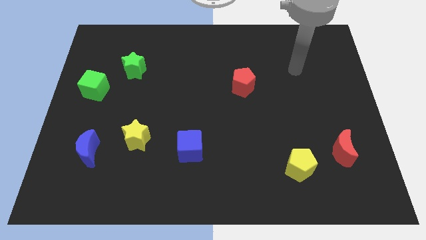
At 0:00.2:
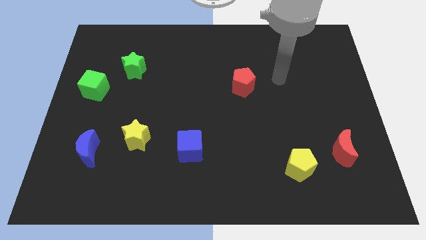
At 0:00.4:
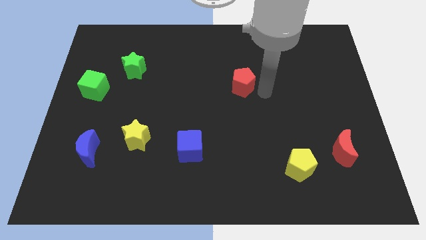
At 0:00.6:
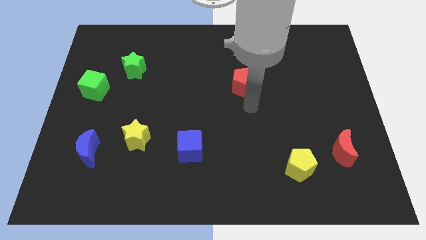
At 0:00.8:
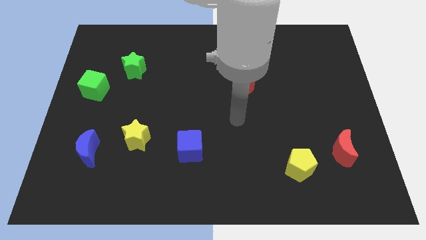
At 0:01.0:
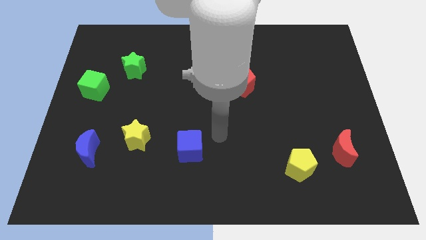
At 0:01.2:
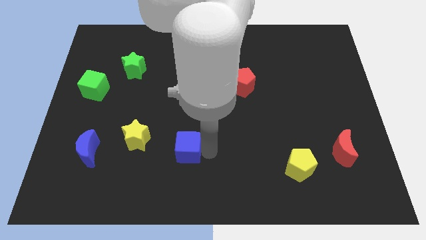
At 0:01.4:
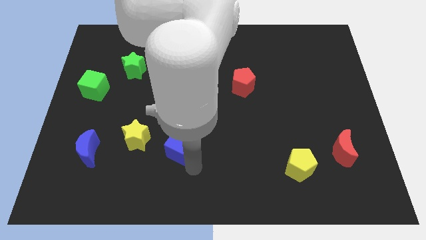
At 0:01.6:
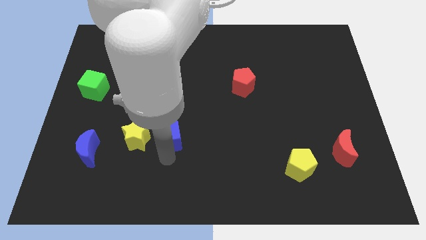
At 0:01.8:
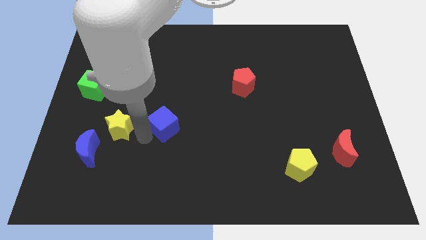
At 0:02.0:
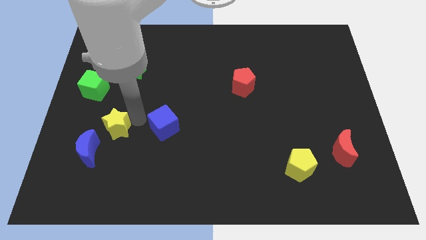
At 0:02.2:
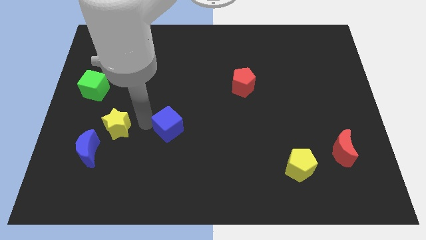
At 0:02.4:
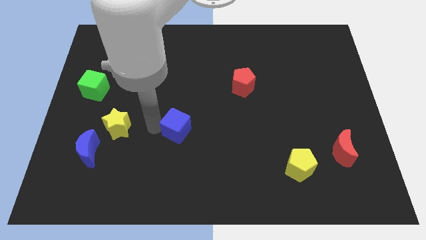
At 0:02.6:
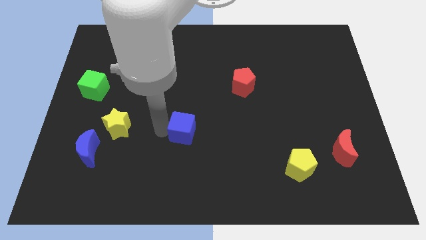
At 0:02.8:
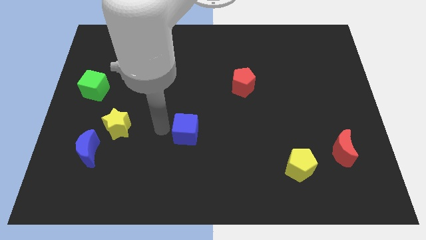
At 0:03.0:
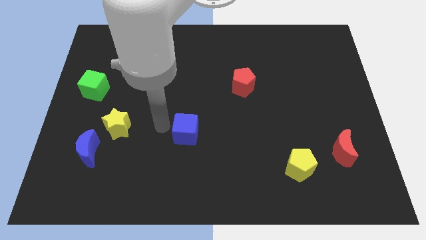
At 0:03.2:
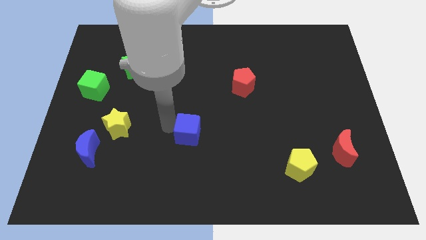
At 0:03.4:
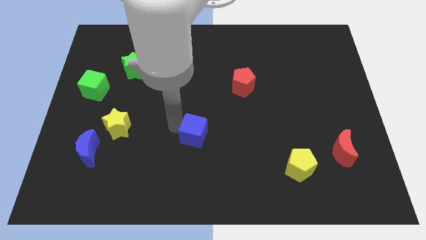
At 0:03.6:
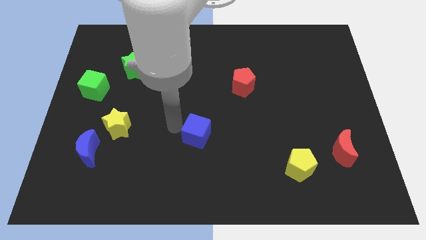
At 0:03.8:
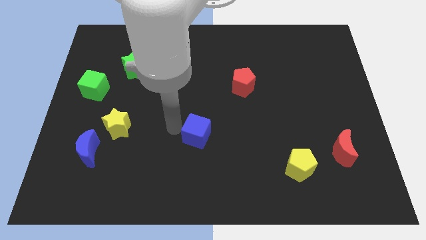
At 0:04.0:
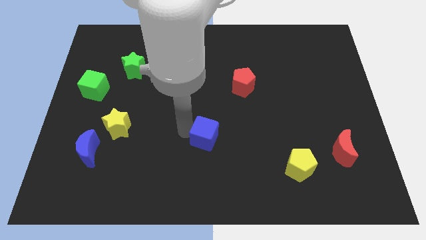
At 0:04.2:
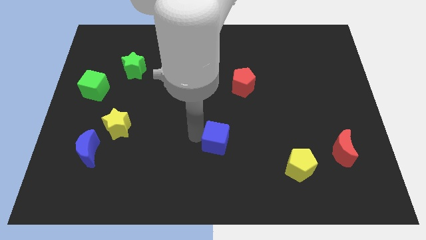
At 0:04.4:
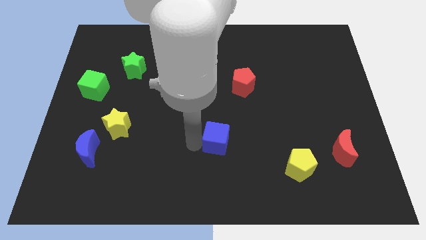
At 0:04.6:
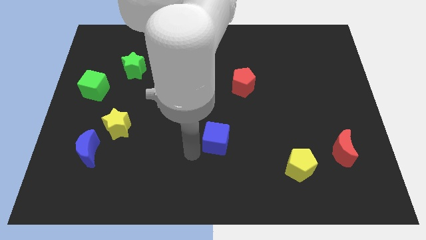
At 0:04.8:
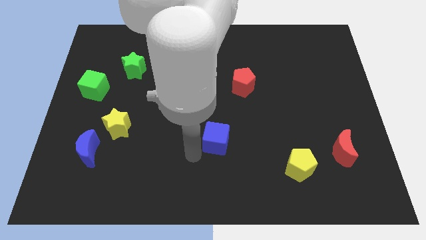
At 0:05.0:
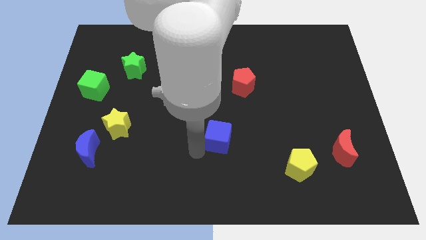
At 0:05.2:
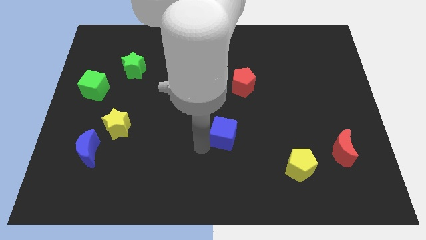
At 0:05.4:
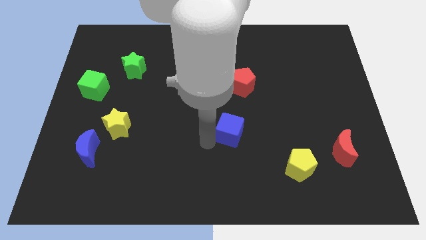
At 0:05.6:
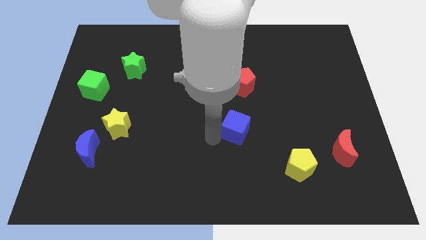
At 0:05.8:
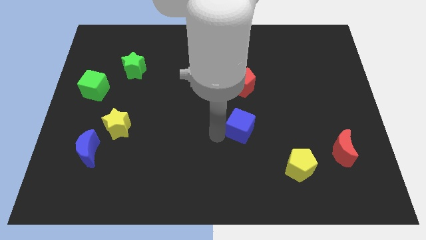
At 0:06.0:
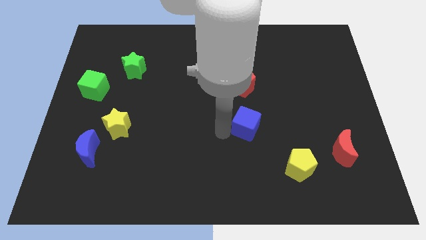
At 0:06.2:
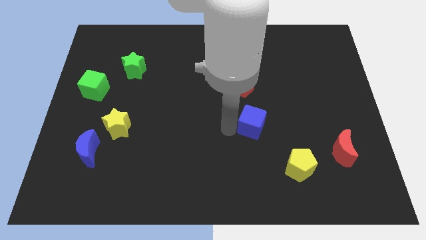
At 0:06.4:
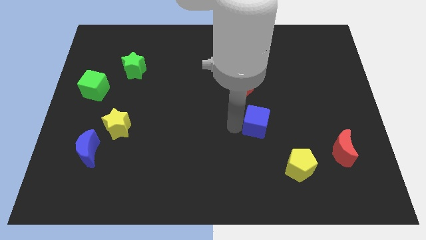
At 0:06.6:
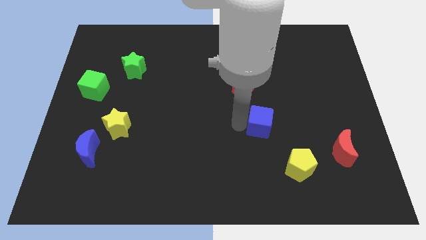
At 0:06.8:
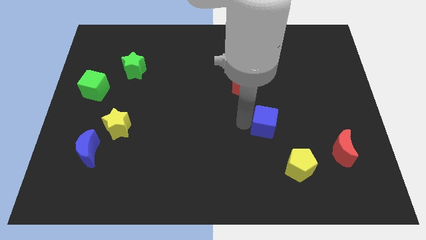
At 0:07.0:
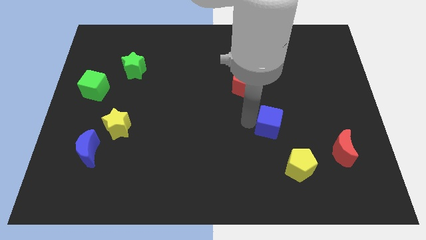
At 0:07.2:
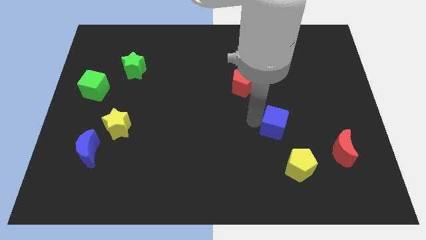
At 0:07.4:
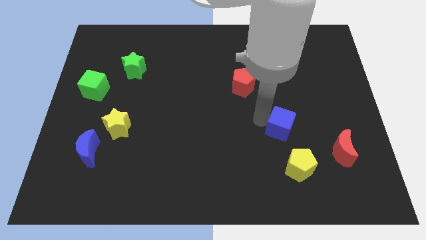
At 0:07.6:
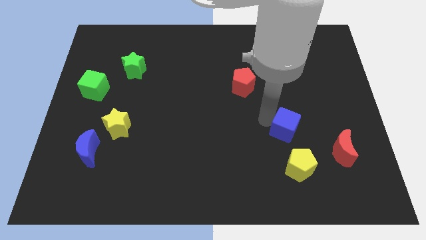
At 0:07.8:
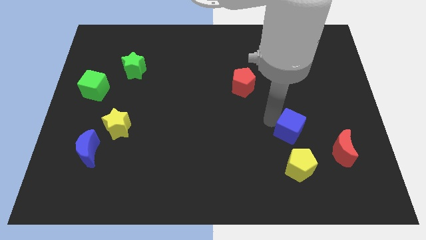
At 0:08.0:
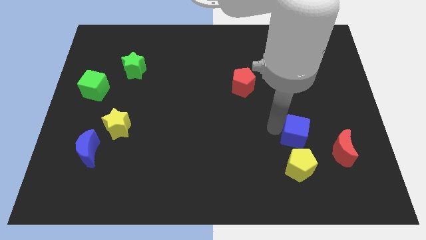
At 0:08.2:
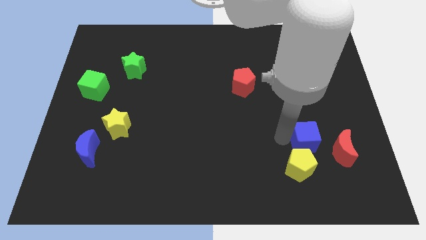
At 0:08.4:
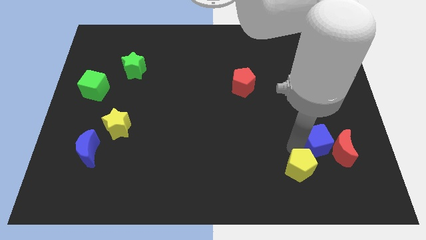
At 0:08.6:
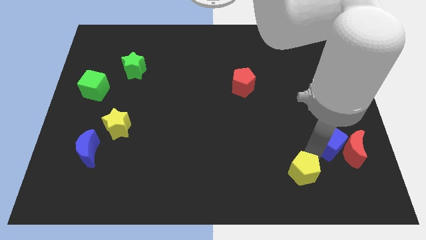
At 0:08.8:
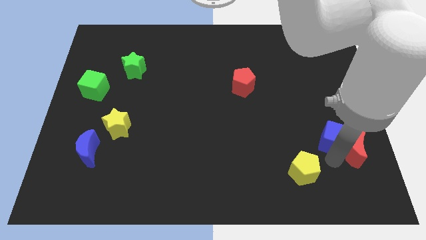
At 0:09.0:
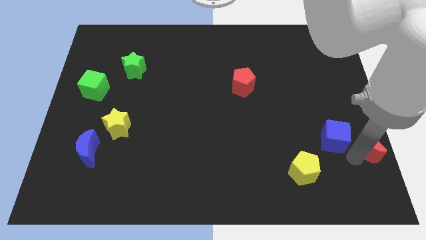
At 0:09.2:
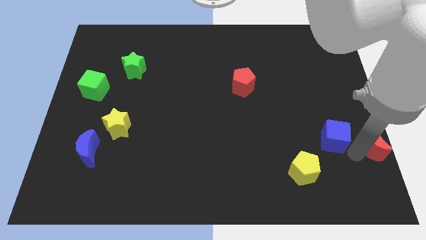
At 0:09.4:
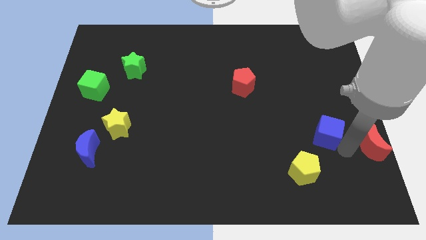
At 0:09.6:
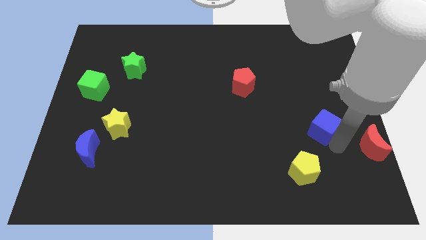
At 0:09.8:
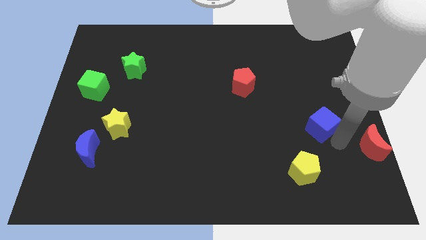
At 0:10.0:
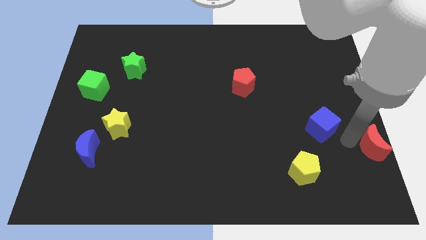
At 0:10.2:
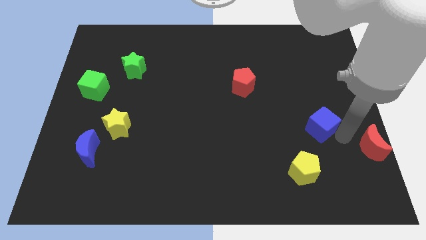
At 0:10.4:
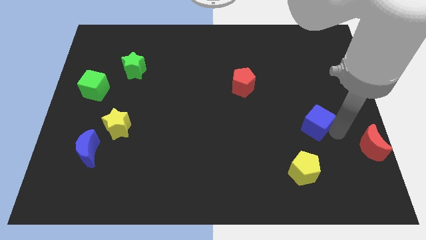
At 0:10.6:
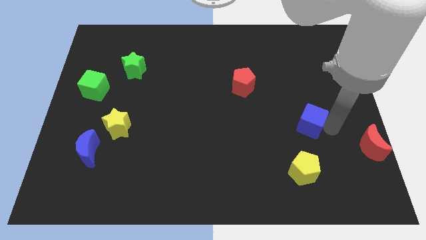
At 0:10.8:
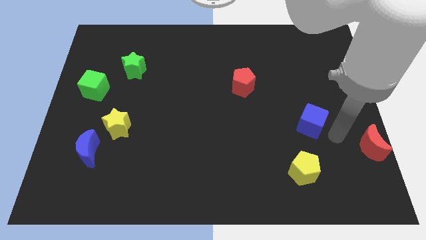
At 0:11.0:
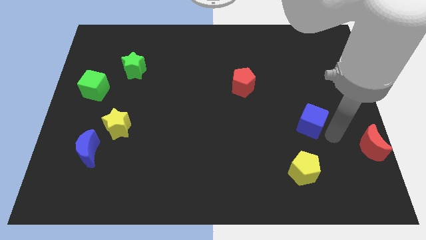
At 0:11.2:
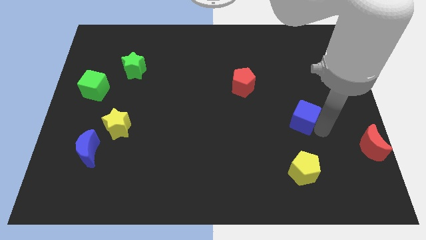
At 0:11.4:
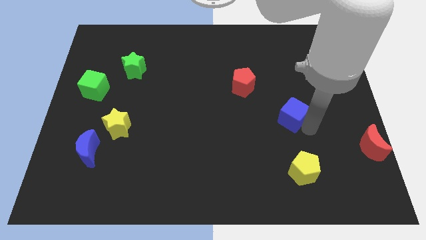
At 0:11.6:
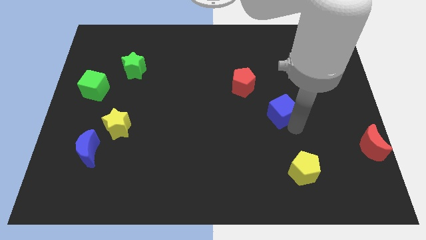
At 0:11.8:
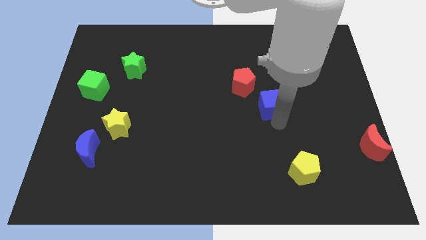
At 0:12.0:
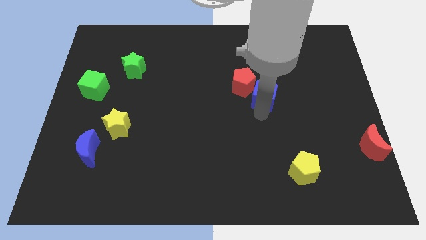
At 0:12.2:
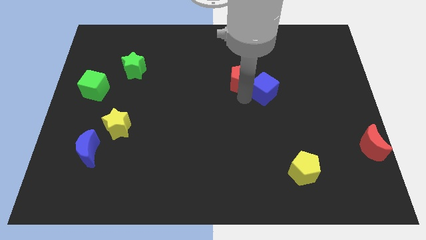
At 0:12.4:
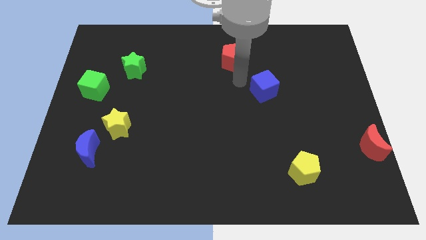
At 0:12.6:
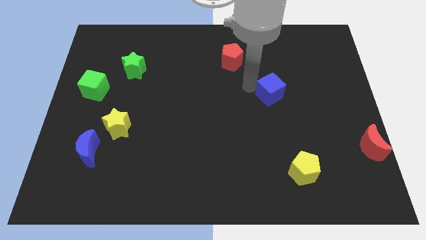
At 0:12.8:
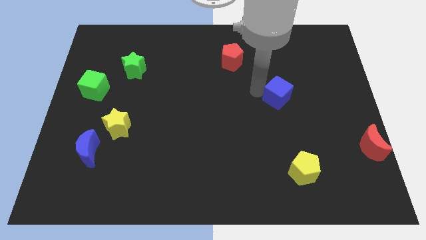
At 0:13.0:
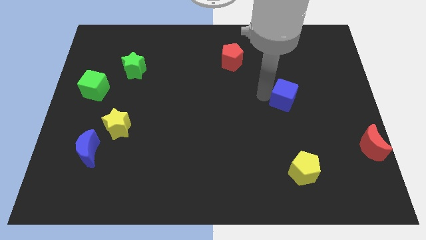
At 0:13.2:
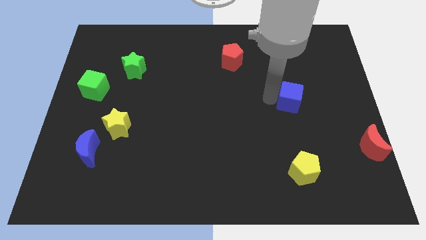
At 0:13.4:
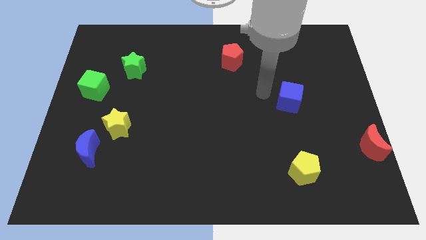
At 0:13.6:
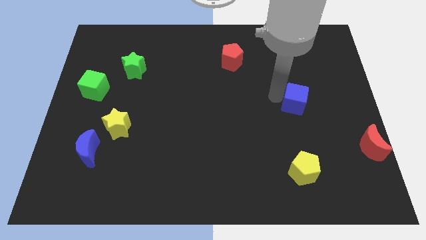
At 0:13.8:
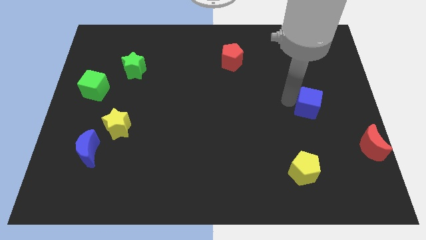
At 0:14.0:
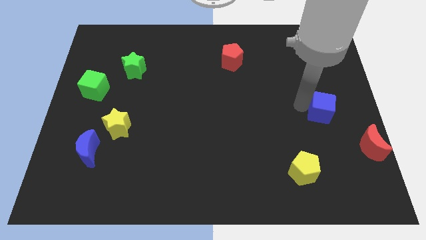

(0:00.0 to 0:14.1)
push the blue cube to the right side of the board

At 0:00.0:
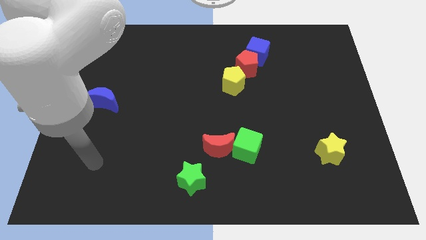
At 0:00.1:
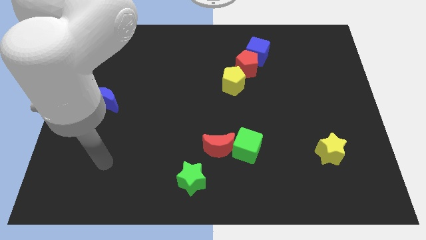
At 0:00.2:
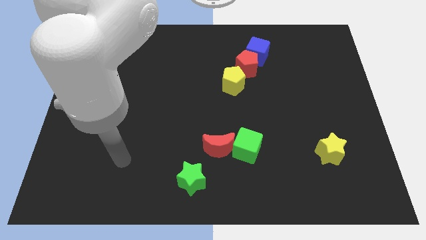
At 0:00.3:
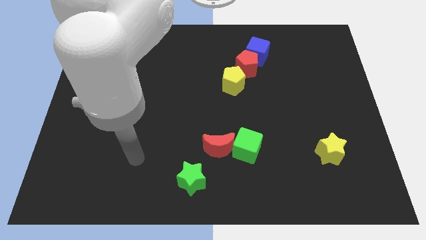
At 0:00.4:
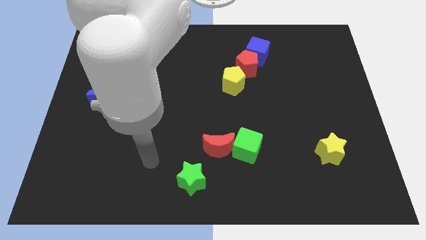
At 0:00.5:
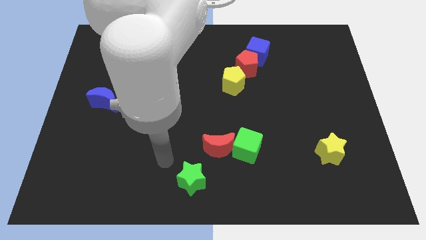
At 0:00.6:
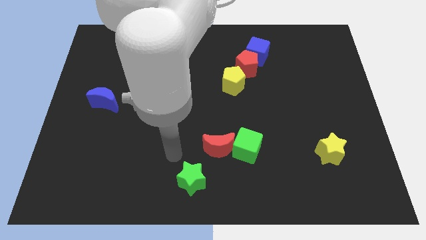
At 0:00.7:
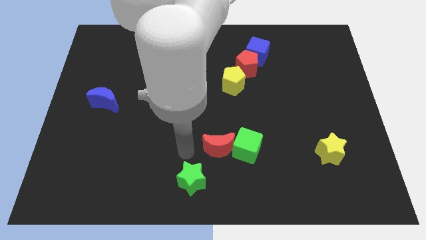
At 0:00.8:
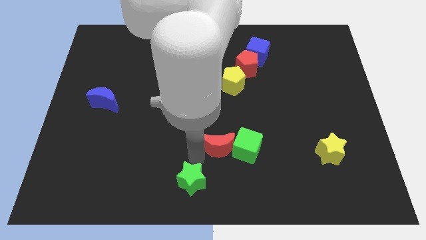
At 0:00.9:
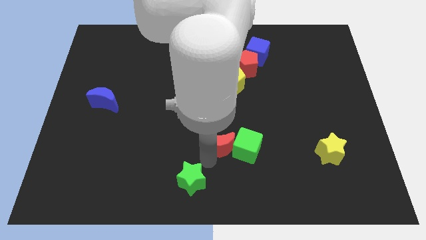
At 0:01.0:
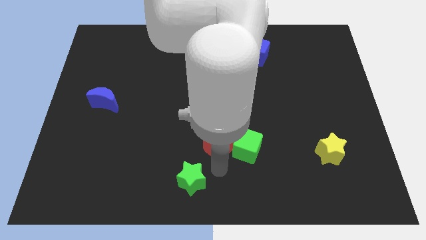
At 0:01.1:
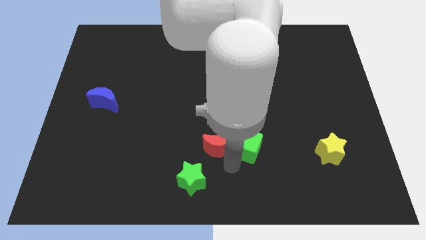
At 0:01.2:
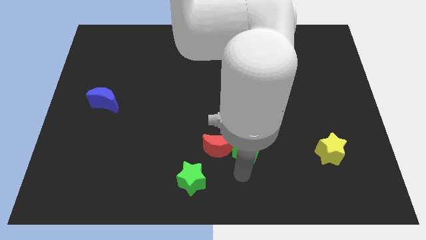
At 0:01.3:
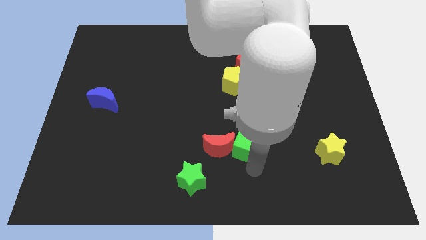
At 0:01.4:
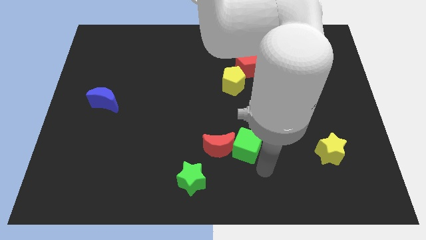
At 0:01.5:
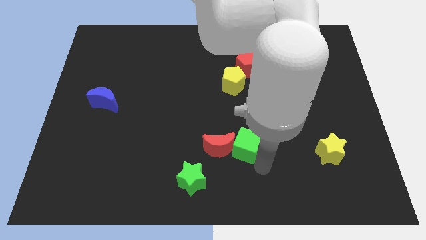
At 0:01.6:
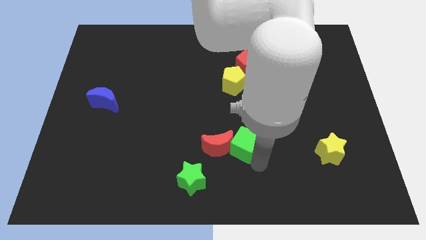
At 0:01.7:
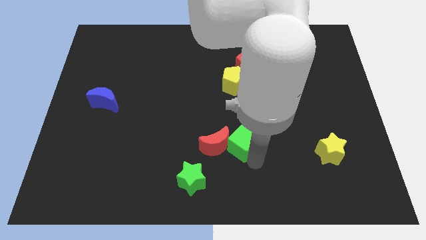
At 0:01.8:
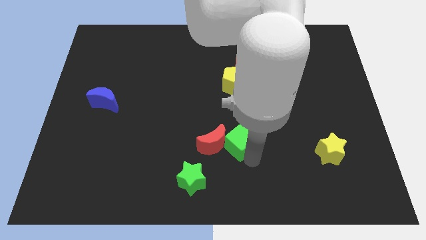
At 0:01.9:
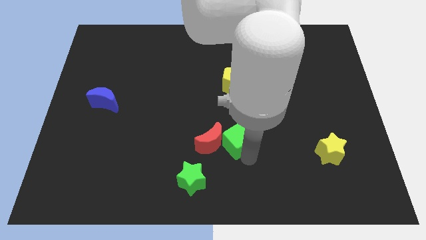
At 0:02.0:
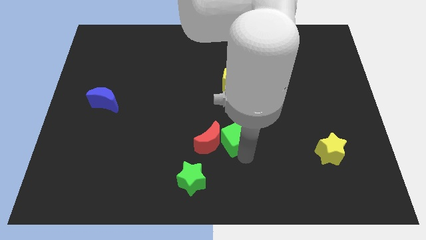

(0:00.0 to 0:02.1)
push the green cube to the middle
